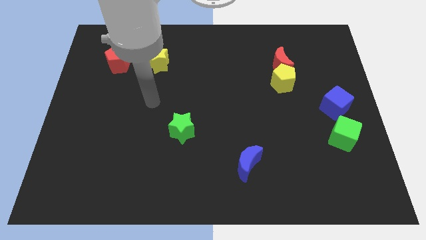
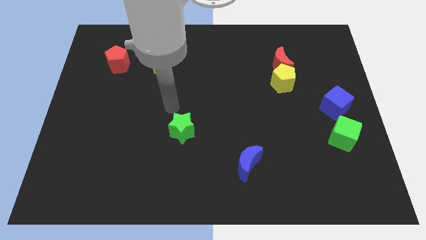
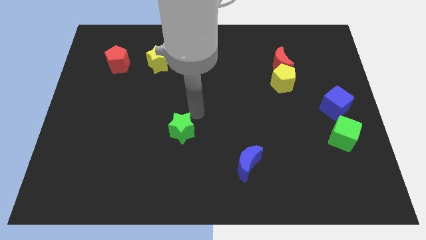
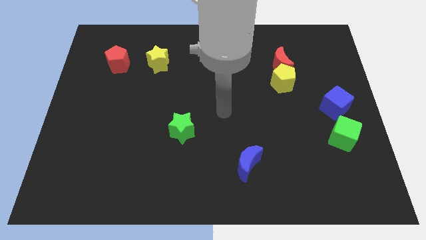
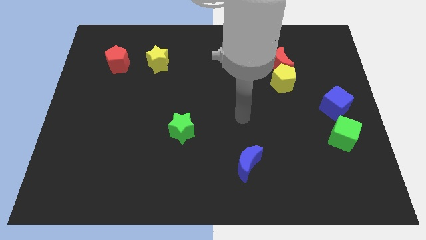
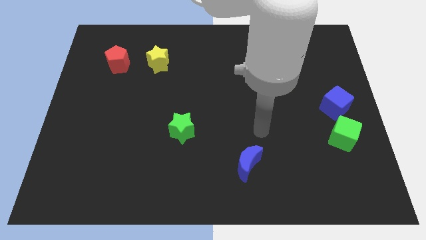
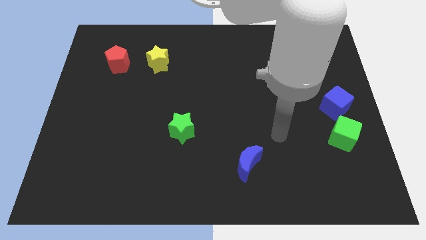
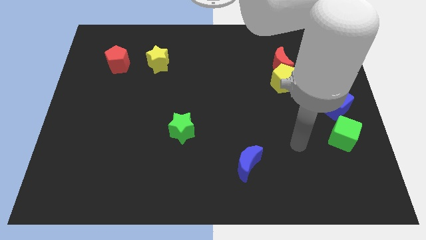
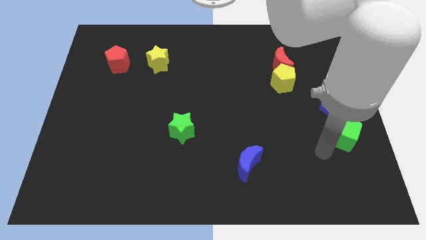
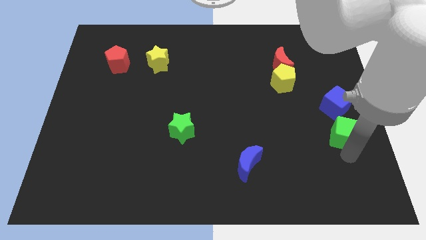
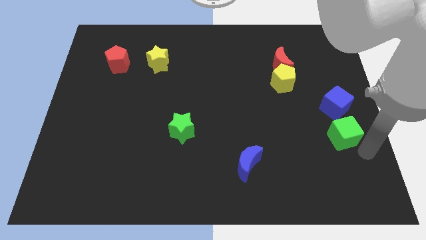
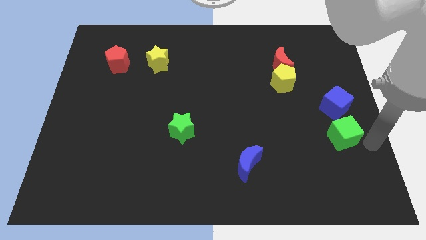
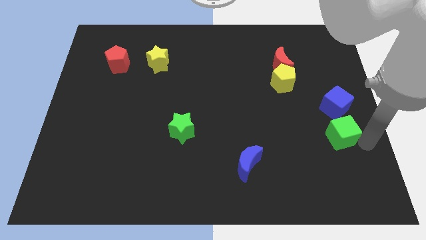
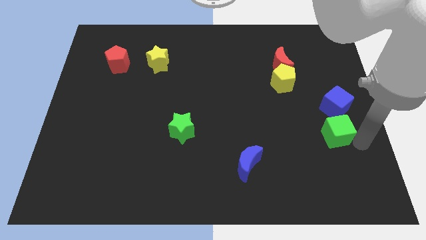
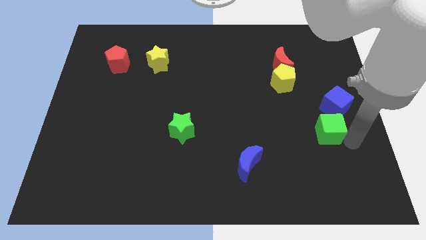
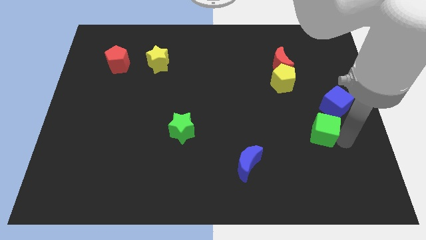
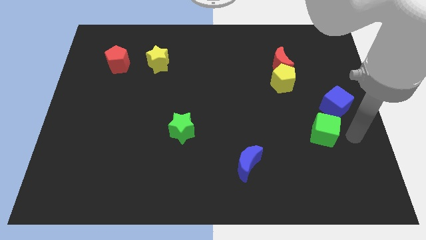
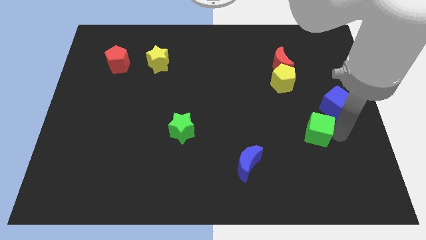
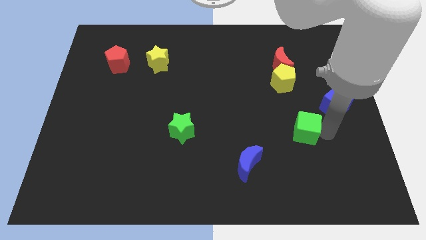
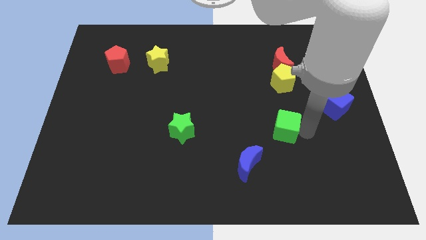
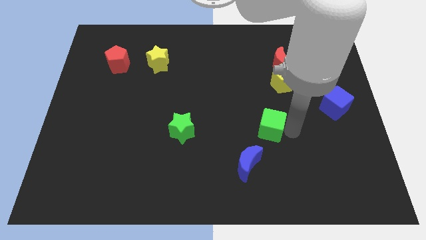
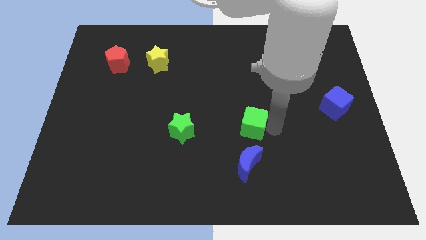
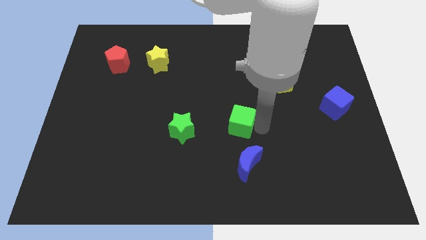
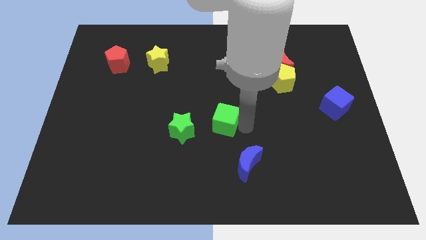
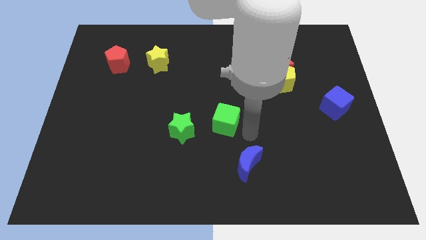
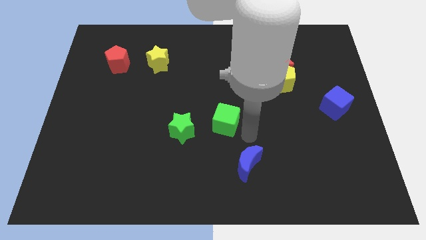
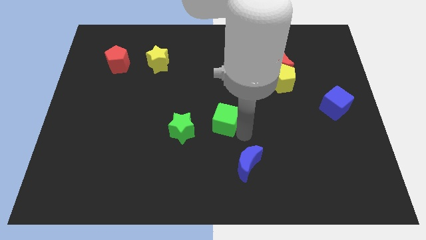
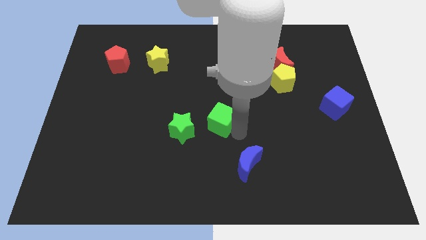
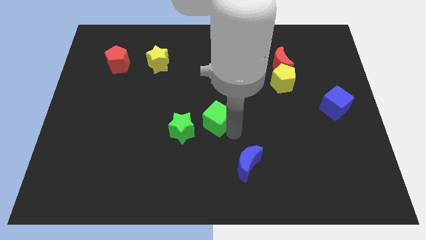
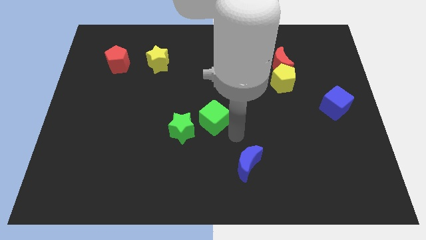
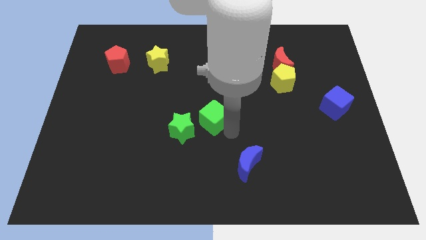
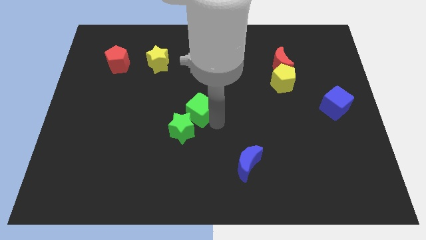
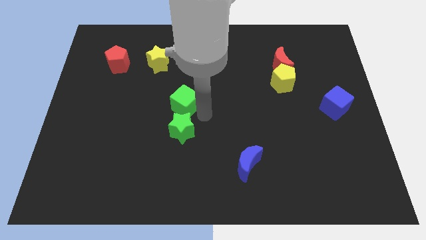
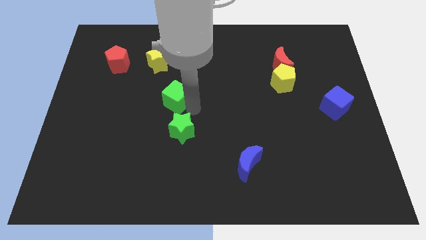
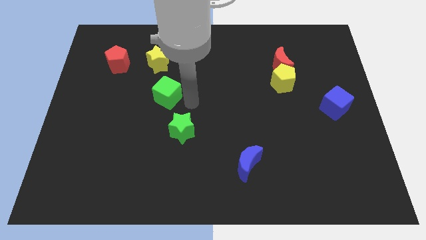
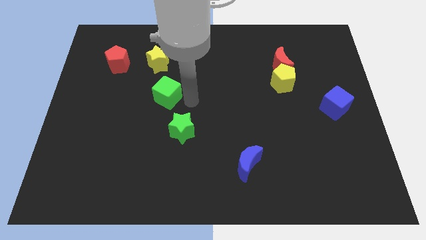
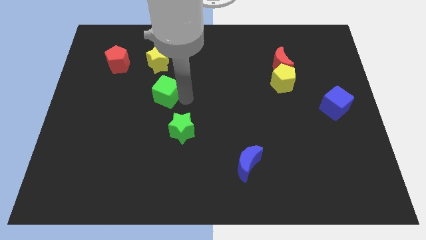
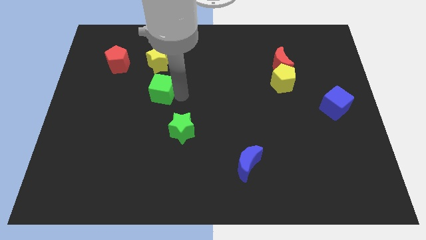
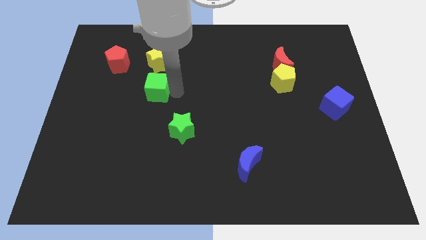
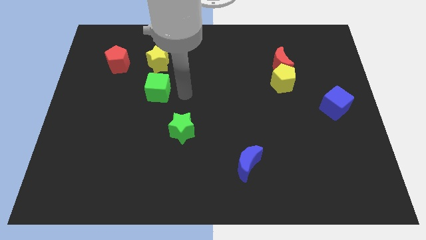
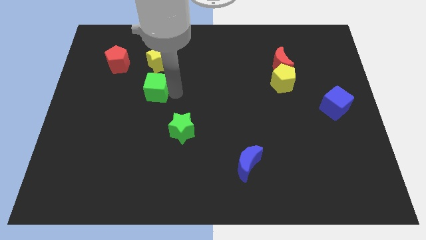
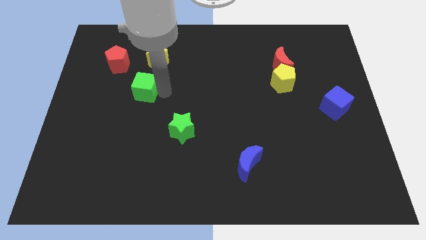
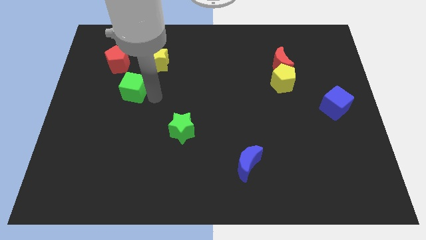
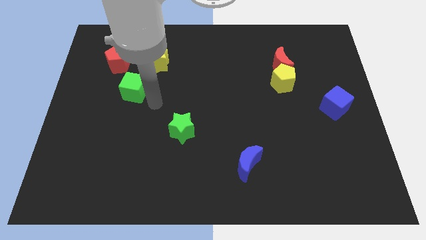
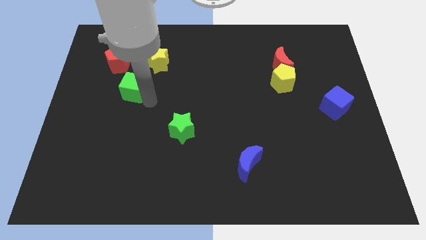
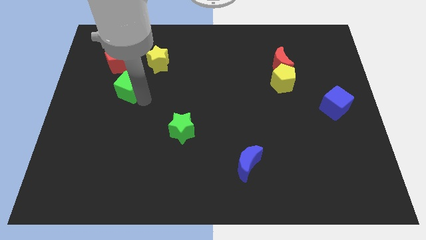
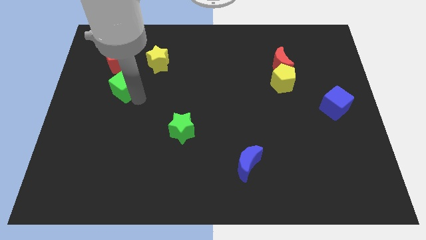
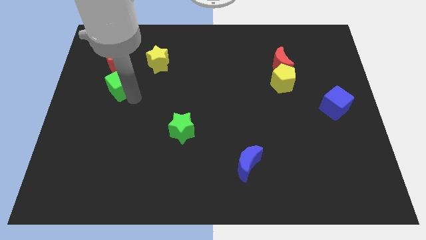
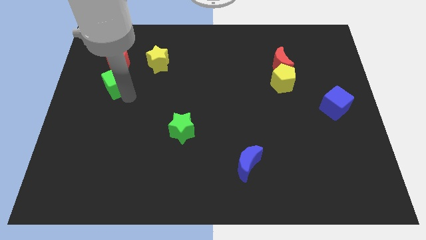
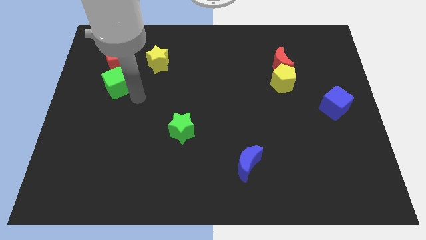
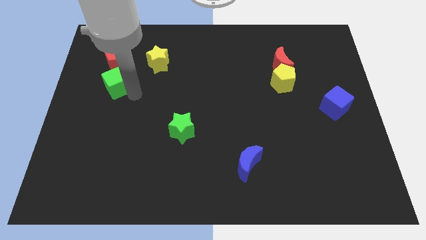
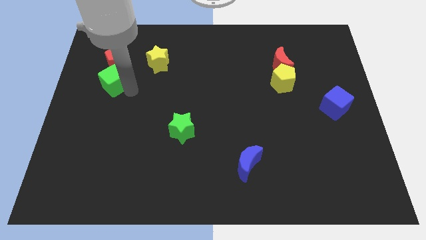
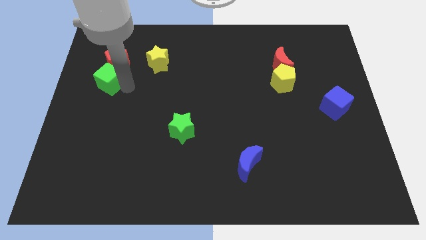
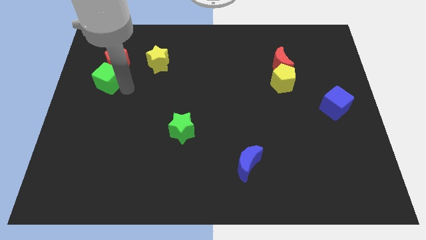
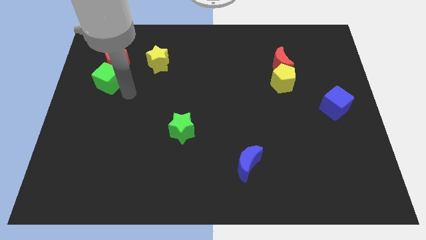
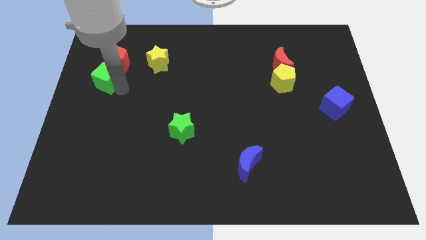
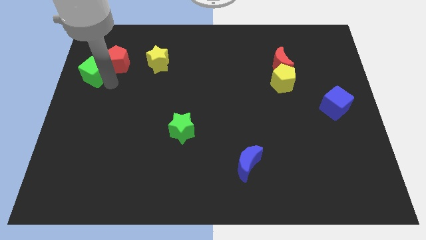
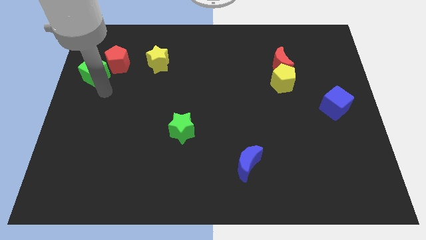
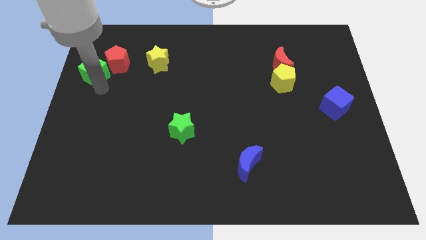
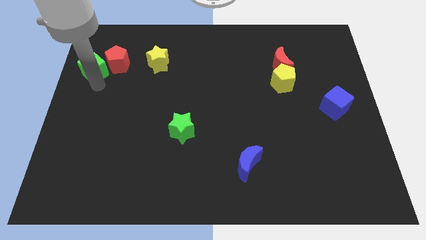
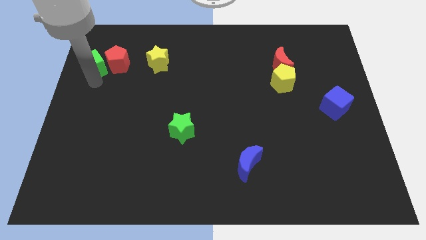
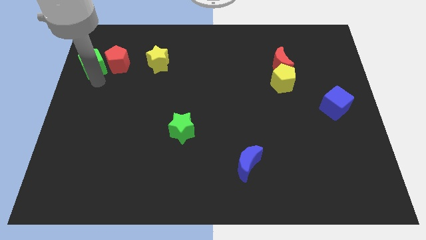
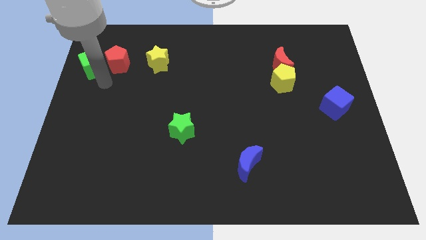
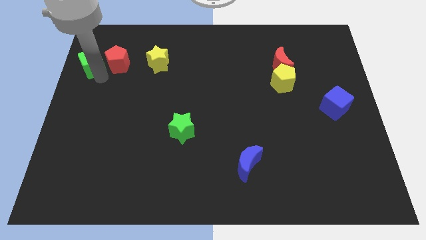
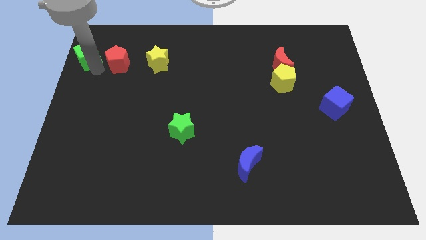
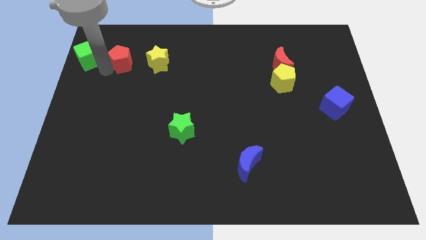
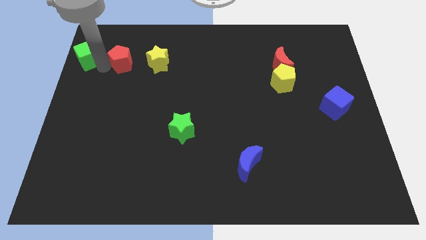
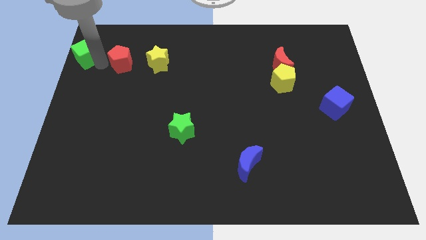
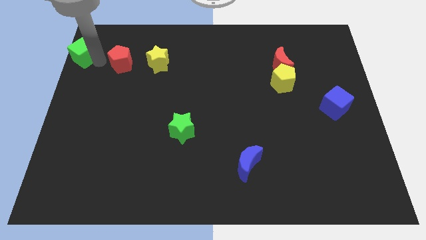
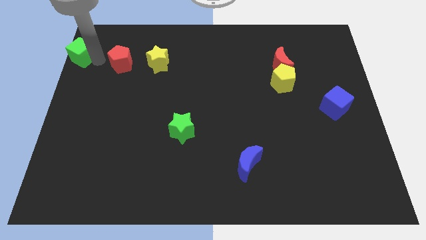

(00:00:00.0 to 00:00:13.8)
move the green cube to the upper left corner
